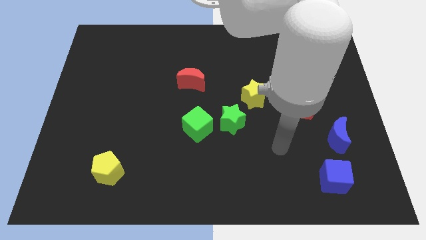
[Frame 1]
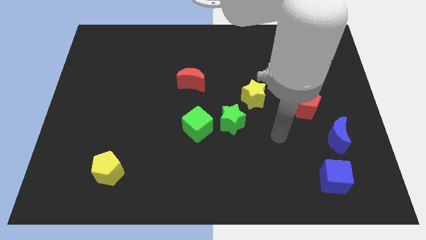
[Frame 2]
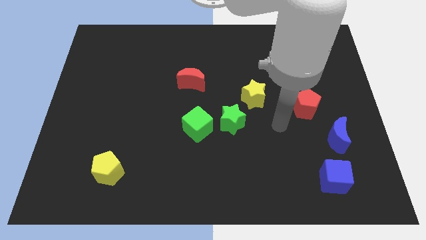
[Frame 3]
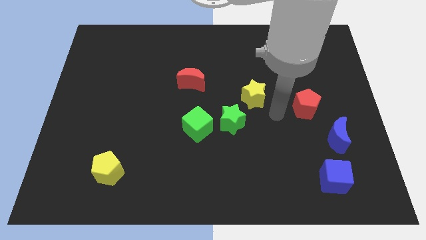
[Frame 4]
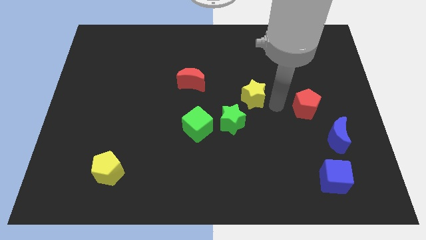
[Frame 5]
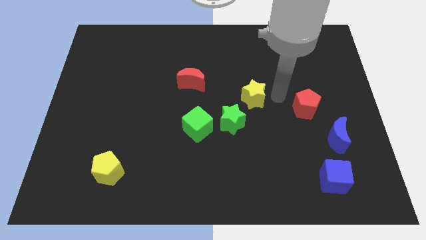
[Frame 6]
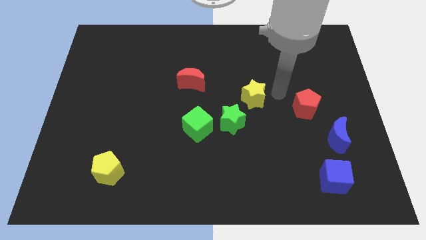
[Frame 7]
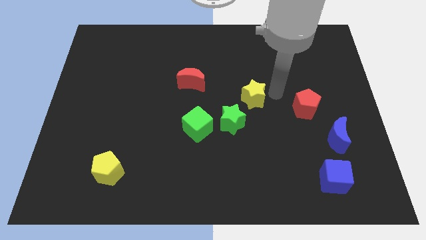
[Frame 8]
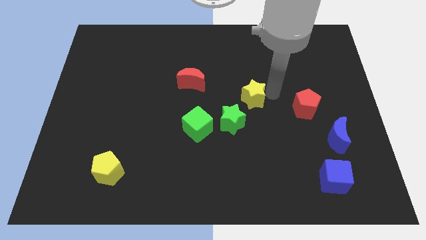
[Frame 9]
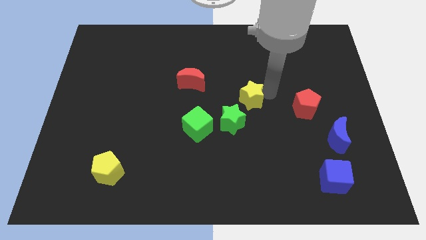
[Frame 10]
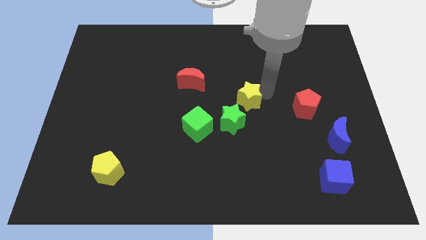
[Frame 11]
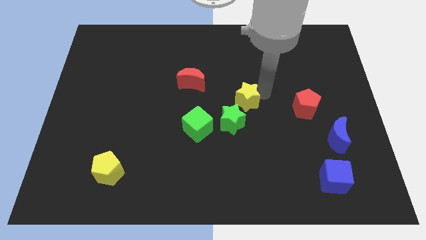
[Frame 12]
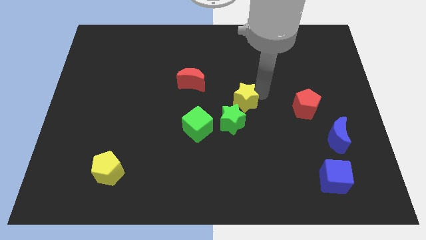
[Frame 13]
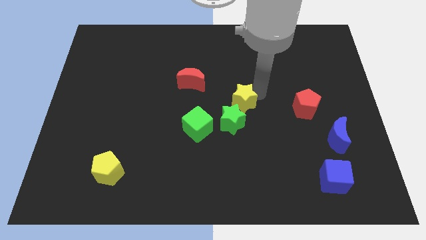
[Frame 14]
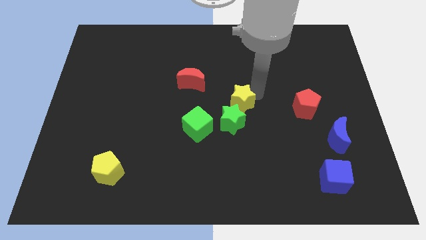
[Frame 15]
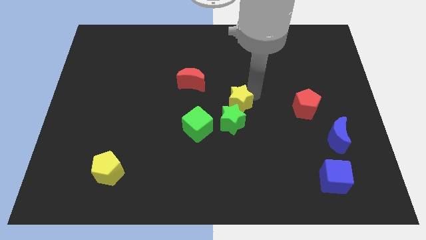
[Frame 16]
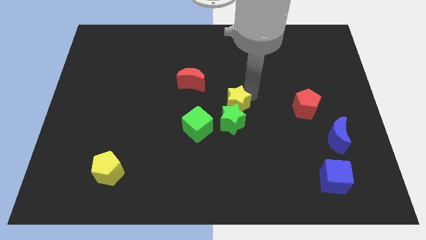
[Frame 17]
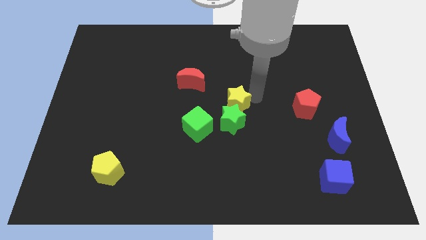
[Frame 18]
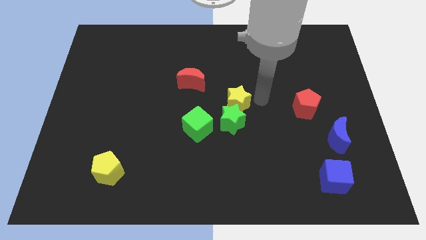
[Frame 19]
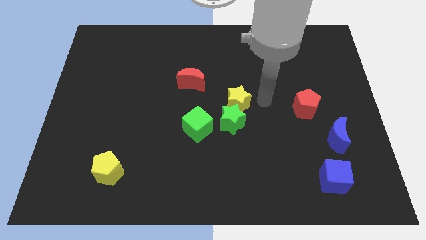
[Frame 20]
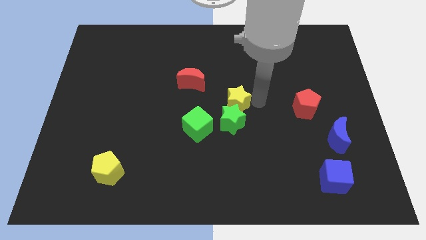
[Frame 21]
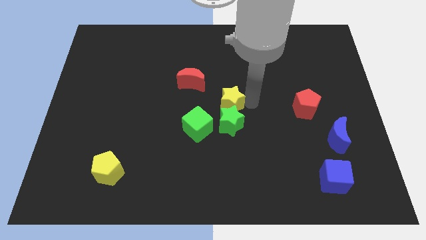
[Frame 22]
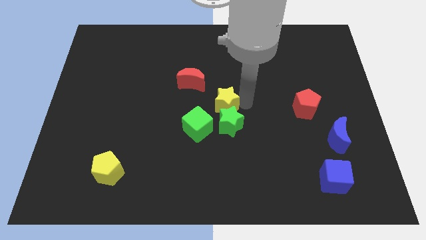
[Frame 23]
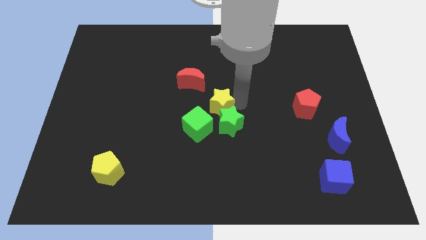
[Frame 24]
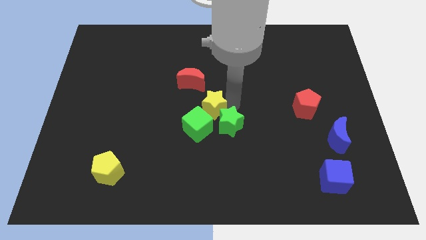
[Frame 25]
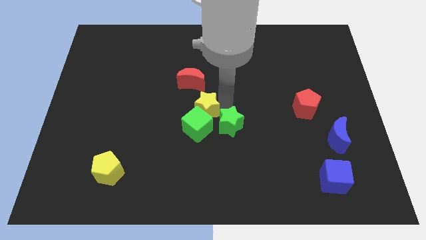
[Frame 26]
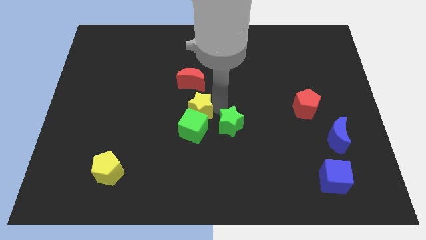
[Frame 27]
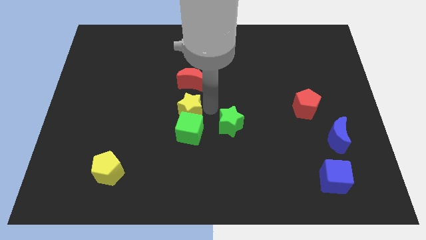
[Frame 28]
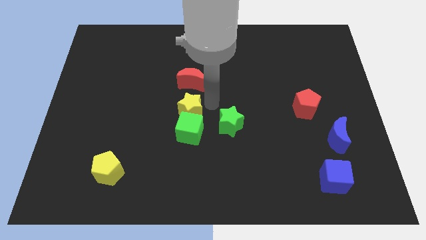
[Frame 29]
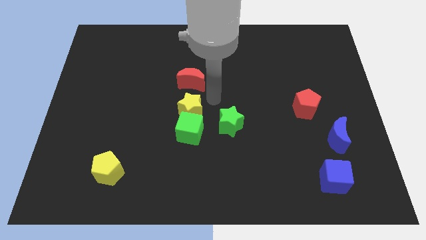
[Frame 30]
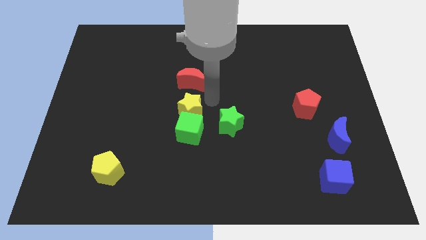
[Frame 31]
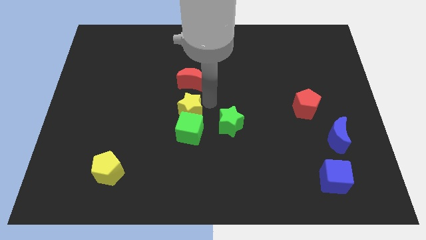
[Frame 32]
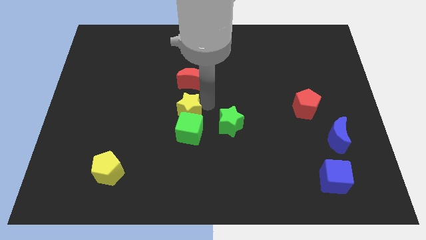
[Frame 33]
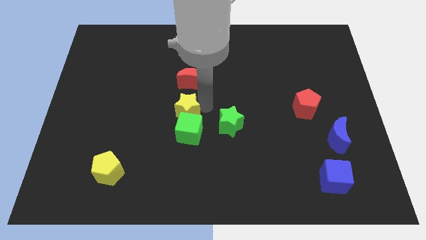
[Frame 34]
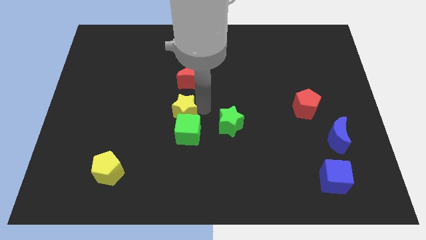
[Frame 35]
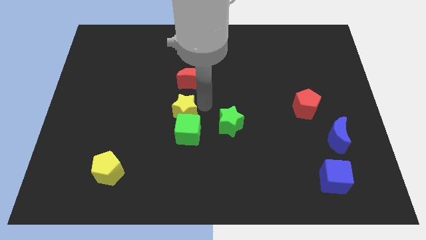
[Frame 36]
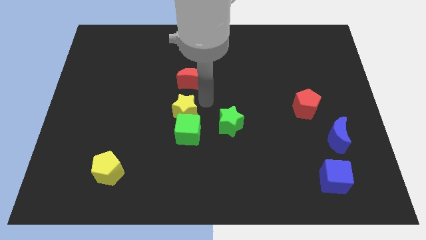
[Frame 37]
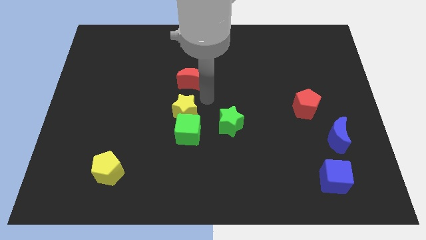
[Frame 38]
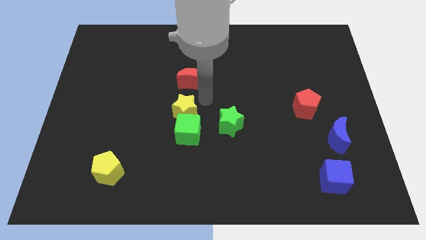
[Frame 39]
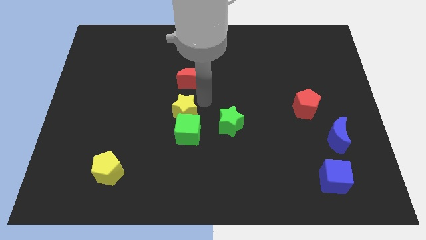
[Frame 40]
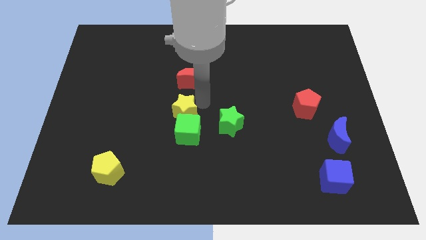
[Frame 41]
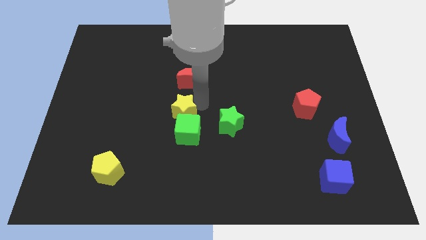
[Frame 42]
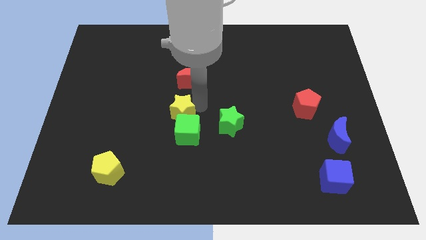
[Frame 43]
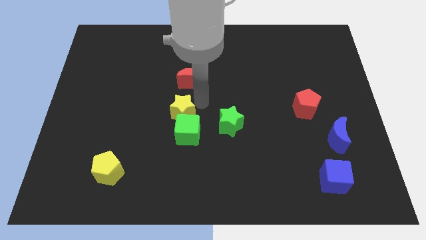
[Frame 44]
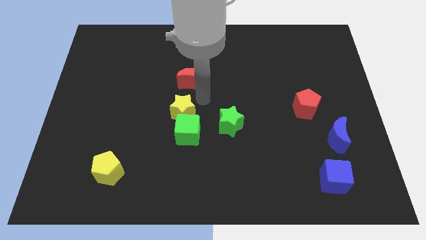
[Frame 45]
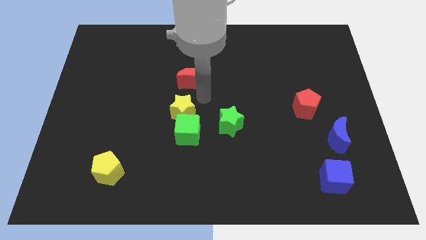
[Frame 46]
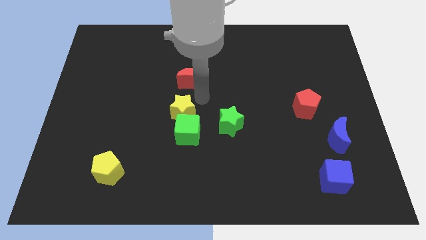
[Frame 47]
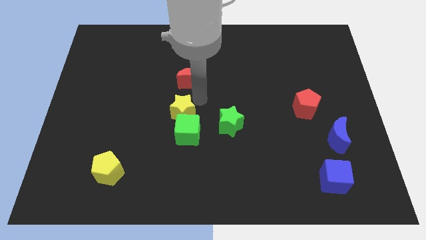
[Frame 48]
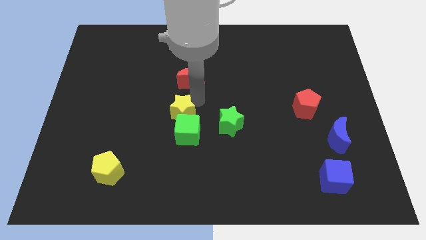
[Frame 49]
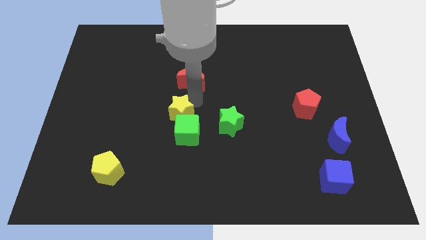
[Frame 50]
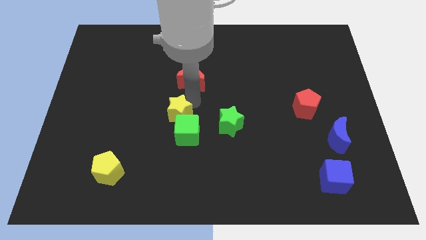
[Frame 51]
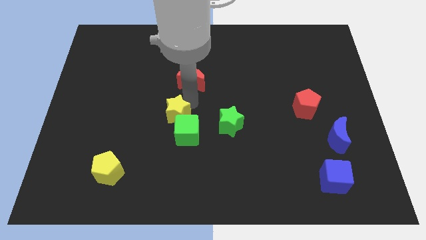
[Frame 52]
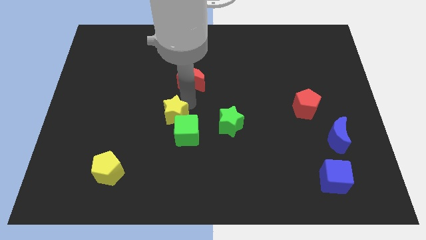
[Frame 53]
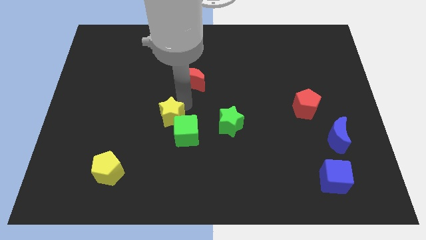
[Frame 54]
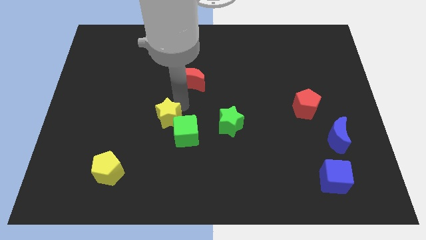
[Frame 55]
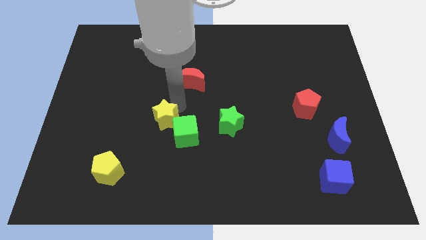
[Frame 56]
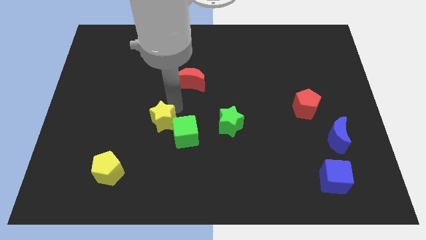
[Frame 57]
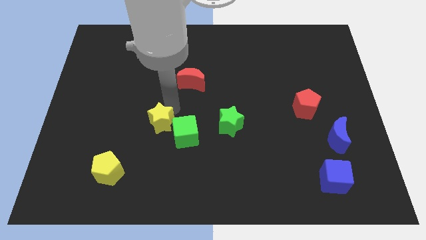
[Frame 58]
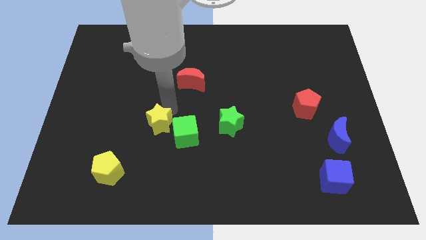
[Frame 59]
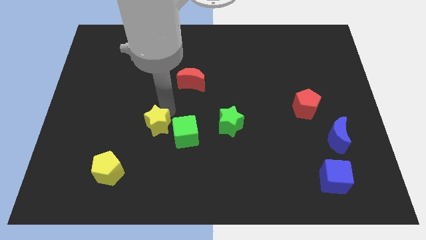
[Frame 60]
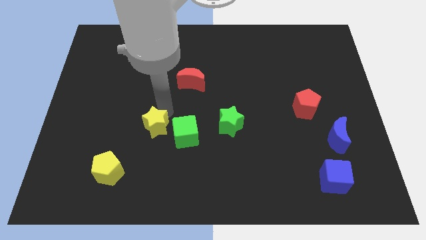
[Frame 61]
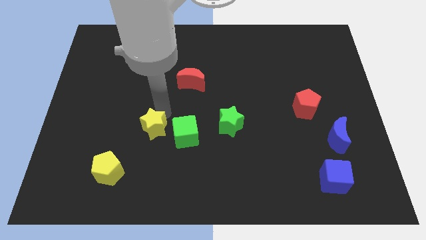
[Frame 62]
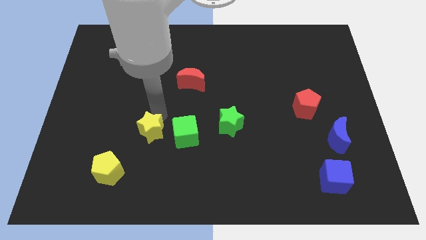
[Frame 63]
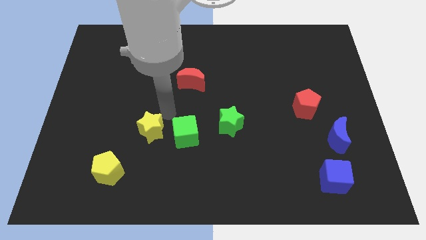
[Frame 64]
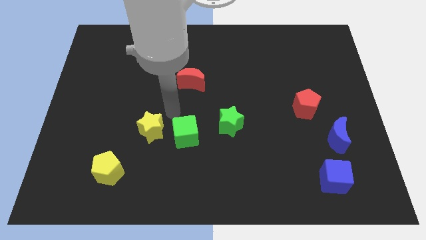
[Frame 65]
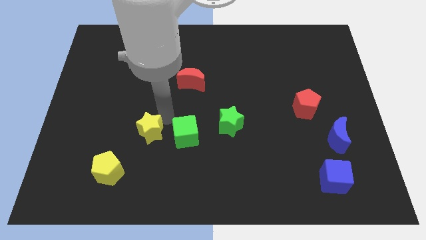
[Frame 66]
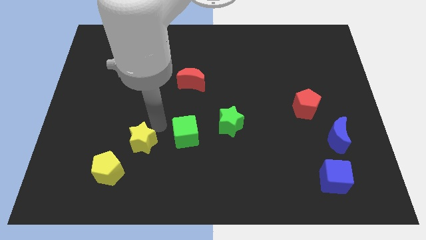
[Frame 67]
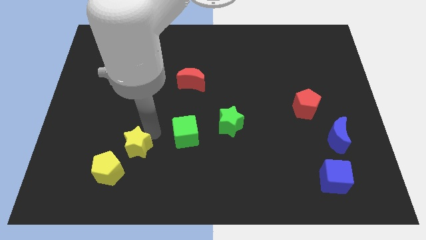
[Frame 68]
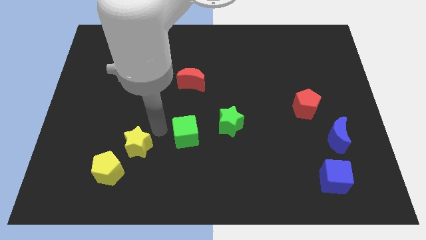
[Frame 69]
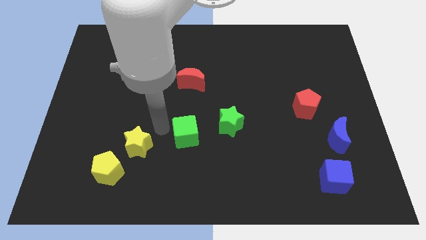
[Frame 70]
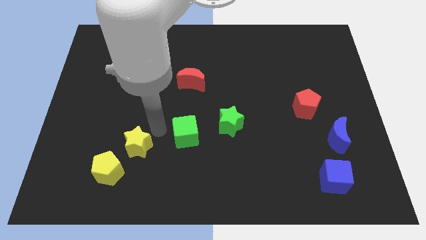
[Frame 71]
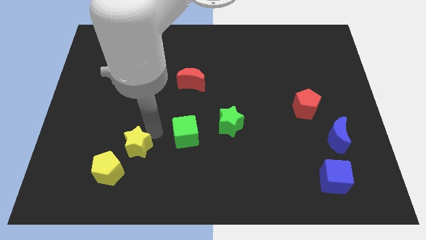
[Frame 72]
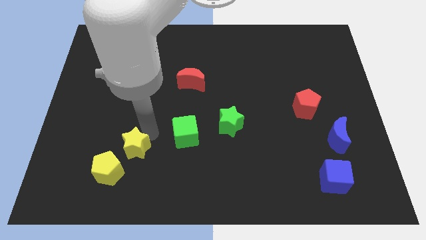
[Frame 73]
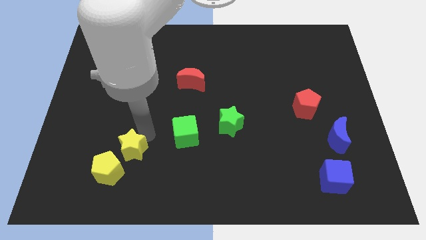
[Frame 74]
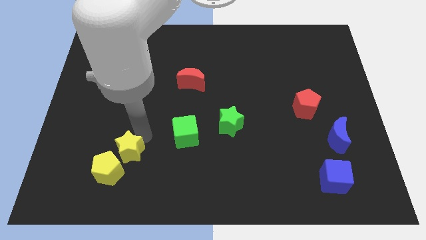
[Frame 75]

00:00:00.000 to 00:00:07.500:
push the yellow star to the yellow pentagon
